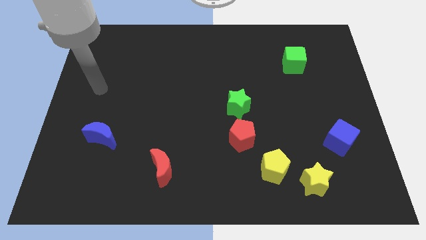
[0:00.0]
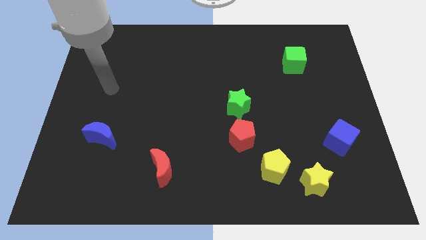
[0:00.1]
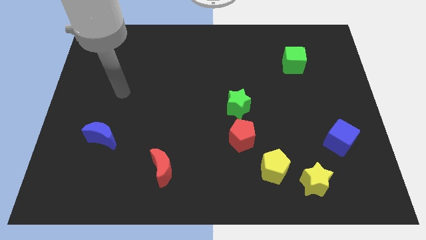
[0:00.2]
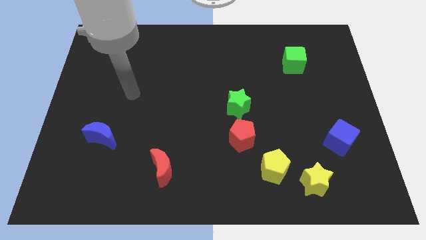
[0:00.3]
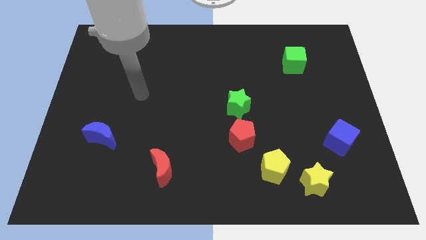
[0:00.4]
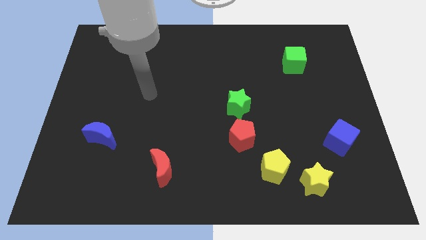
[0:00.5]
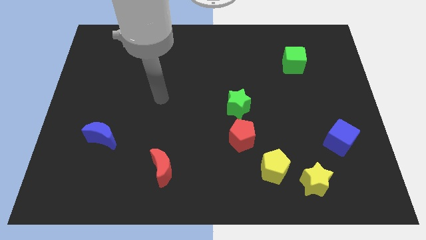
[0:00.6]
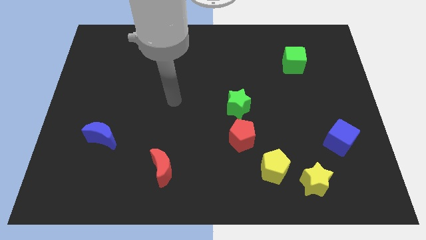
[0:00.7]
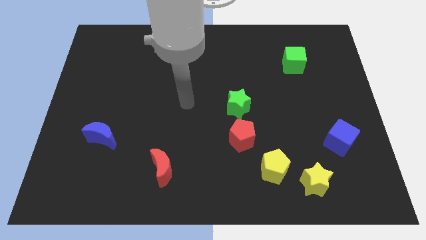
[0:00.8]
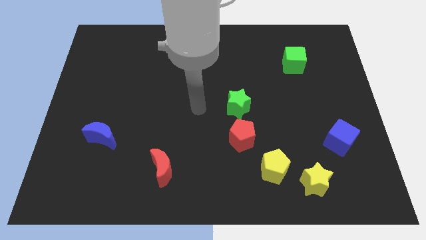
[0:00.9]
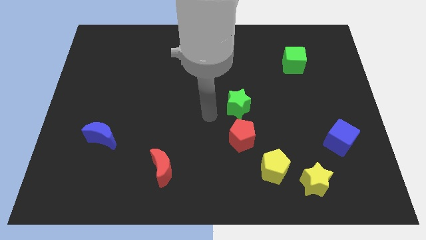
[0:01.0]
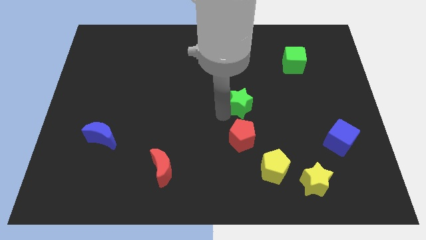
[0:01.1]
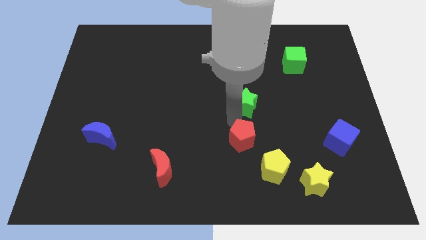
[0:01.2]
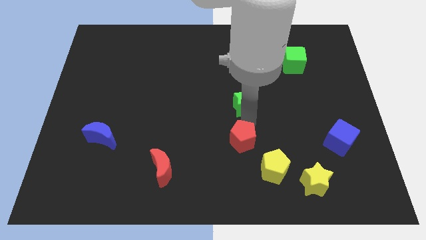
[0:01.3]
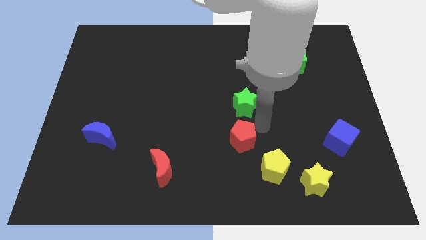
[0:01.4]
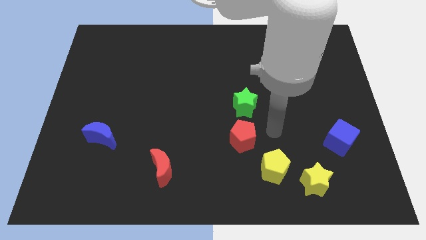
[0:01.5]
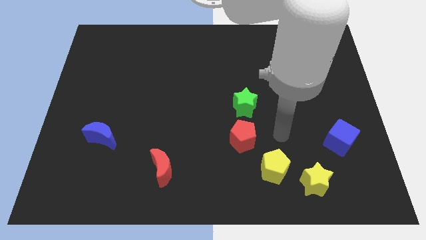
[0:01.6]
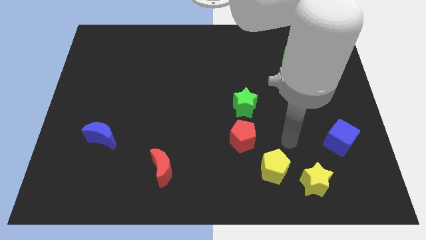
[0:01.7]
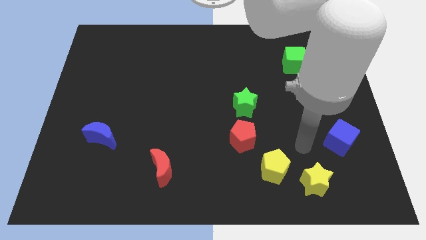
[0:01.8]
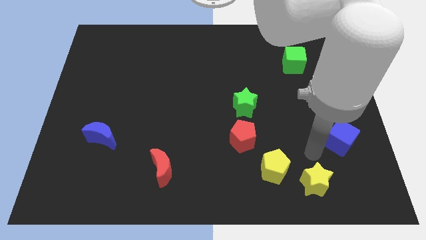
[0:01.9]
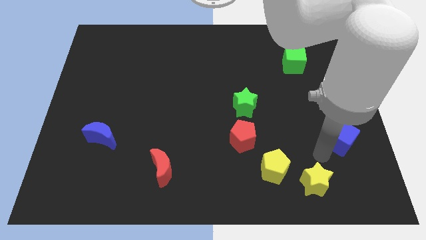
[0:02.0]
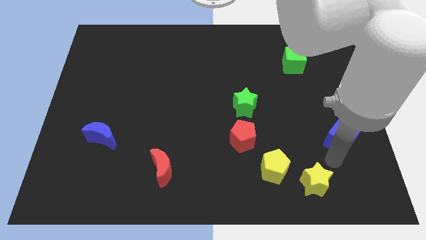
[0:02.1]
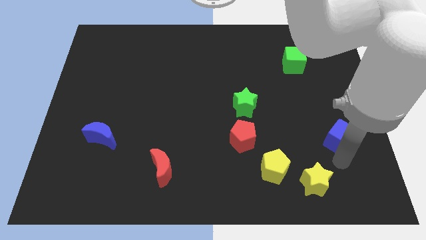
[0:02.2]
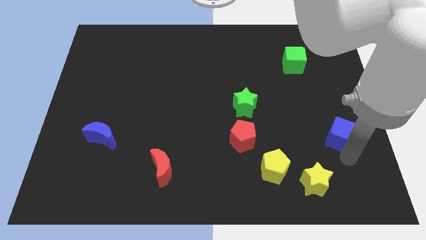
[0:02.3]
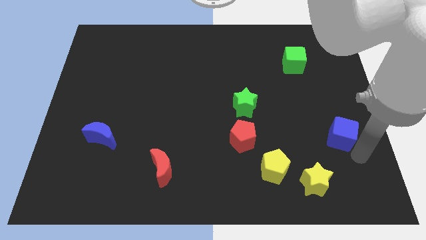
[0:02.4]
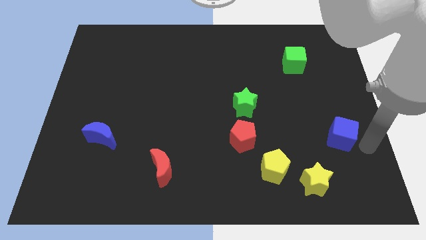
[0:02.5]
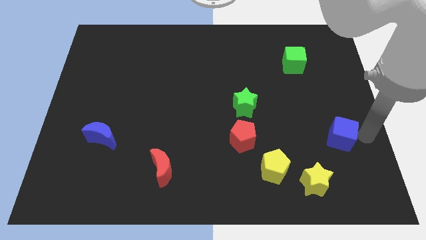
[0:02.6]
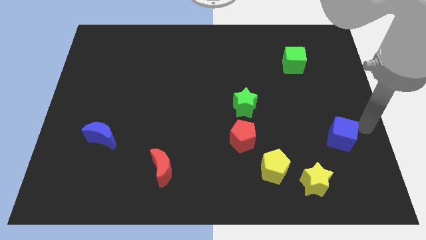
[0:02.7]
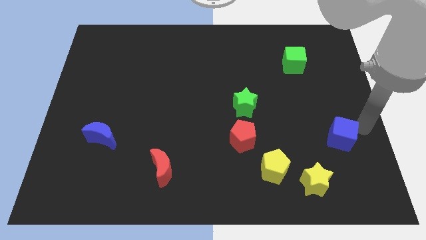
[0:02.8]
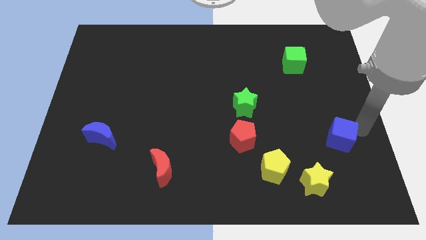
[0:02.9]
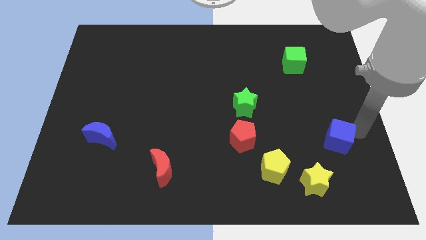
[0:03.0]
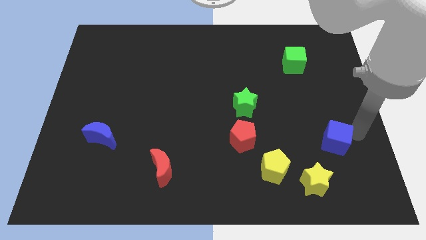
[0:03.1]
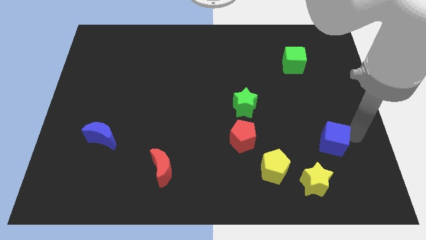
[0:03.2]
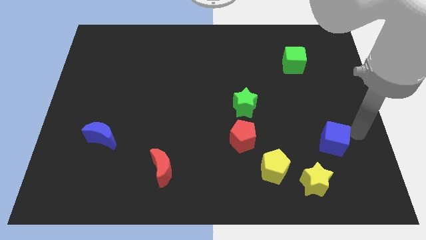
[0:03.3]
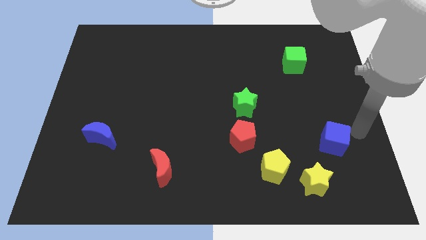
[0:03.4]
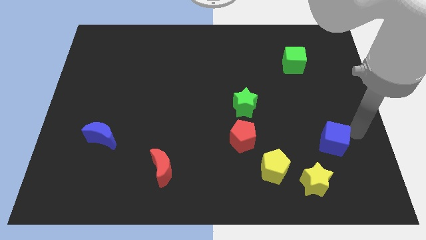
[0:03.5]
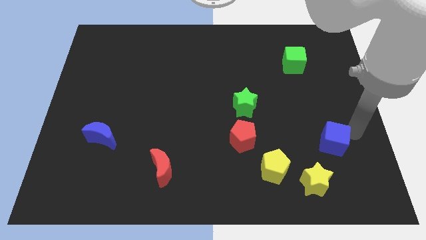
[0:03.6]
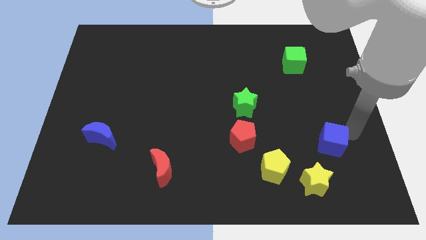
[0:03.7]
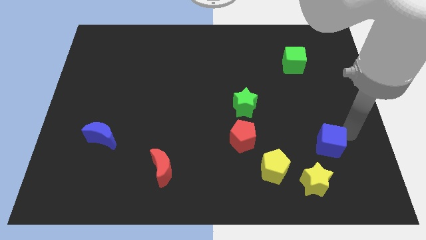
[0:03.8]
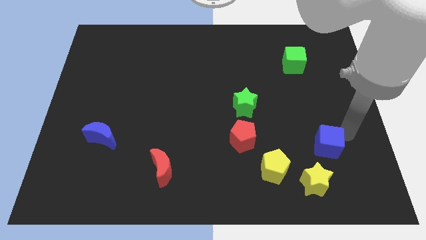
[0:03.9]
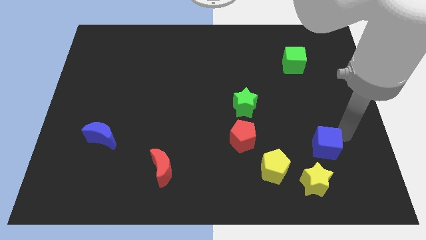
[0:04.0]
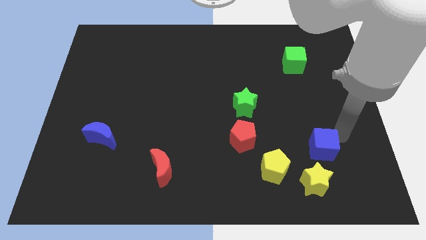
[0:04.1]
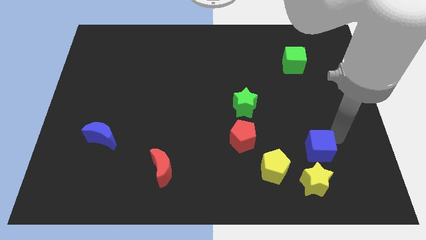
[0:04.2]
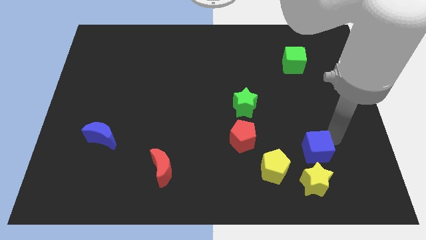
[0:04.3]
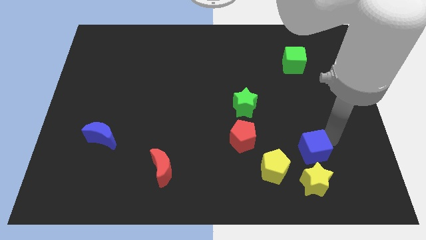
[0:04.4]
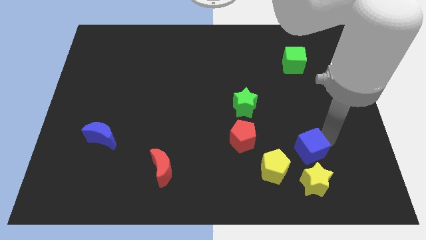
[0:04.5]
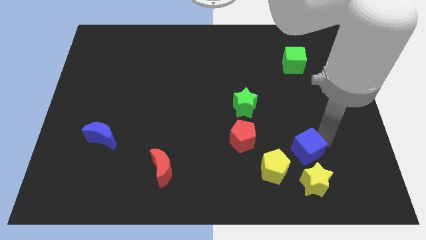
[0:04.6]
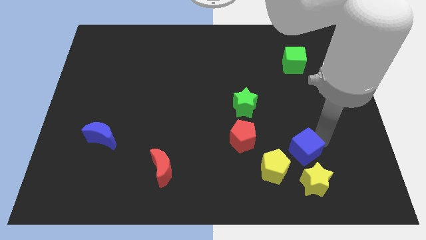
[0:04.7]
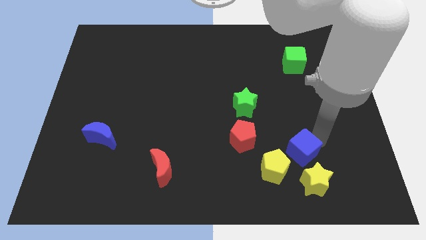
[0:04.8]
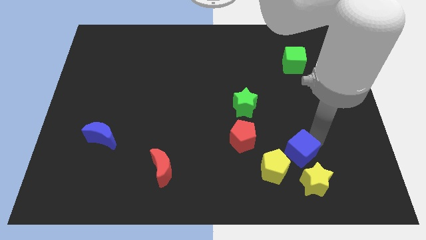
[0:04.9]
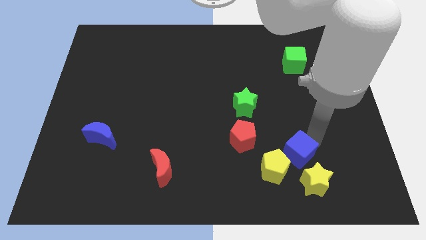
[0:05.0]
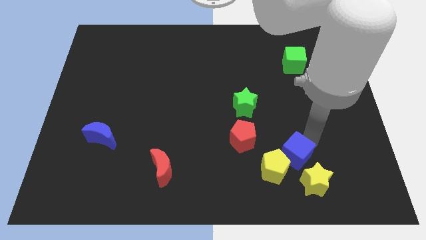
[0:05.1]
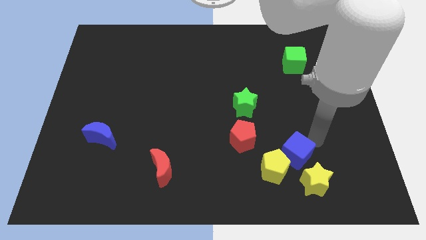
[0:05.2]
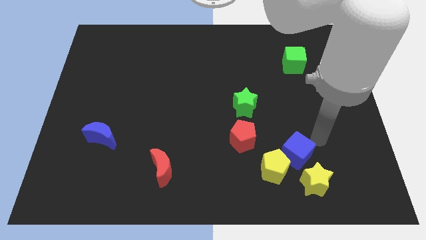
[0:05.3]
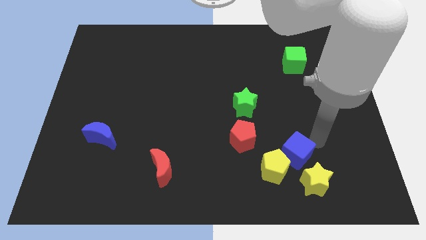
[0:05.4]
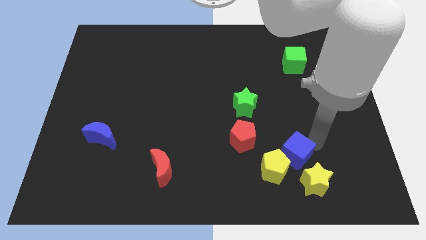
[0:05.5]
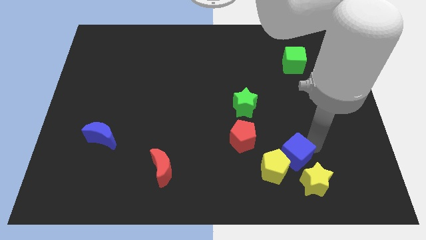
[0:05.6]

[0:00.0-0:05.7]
push the blue cube next to the yellow pentagon

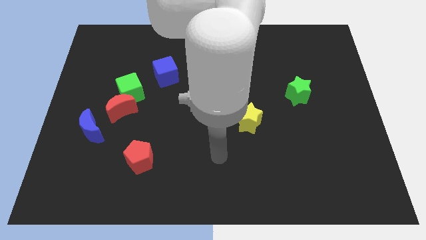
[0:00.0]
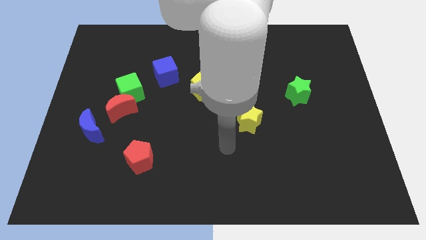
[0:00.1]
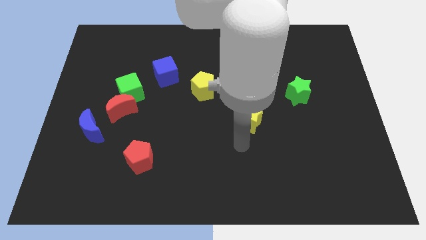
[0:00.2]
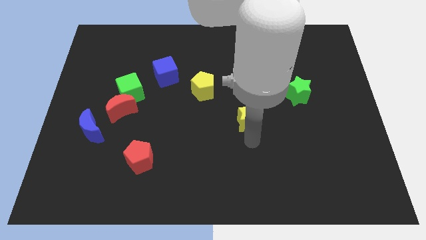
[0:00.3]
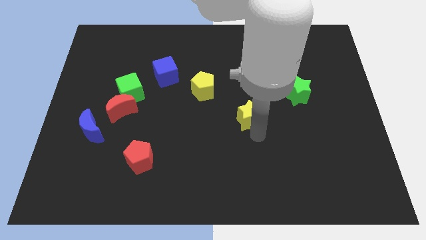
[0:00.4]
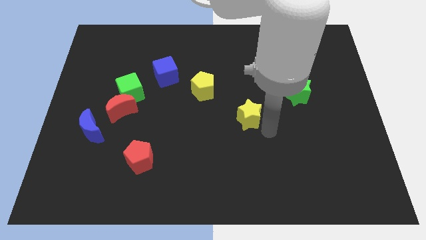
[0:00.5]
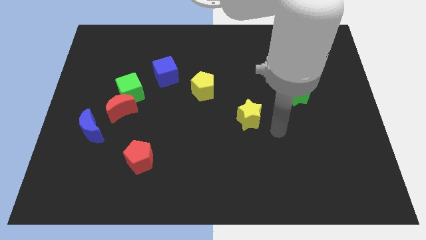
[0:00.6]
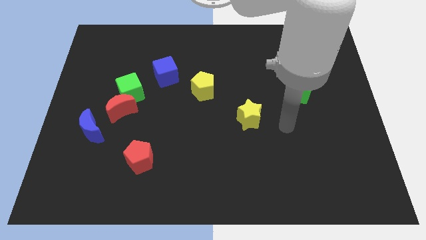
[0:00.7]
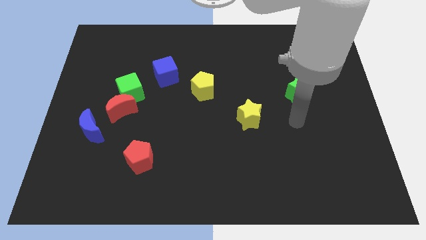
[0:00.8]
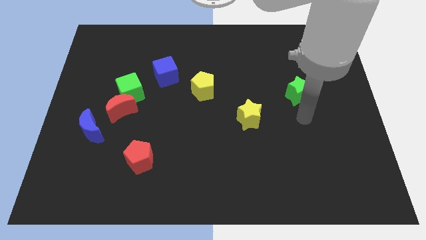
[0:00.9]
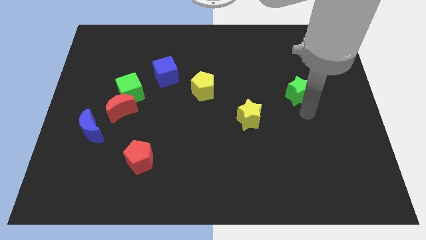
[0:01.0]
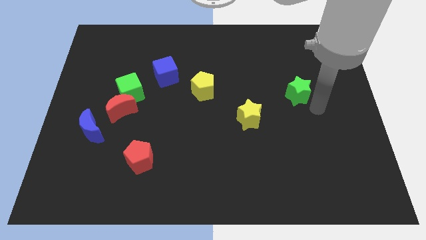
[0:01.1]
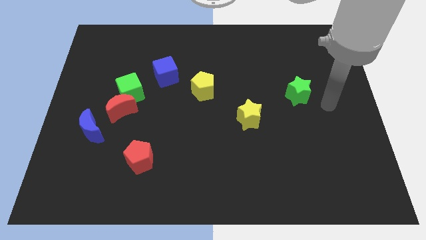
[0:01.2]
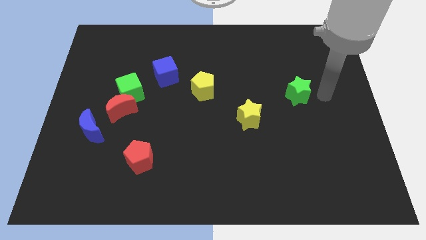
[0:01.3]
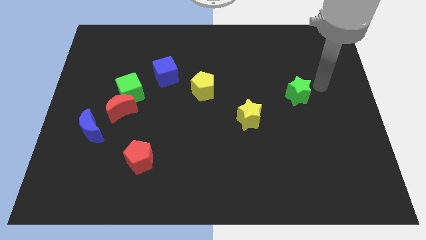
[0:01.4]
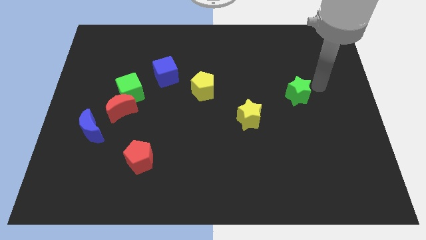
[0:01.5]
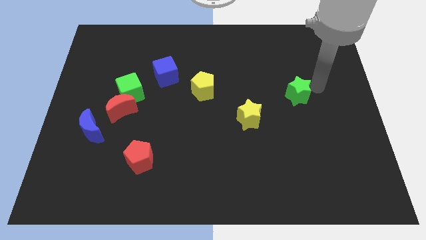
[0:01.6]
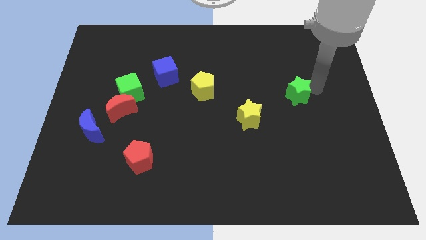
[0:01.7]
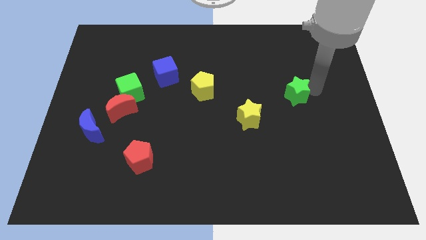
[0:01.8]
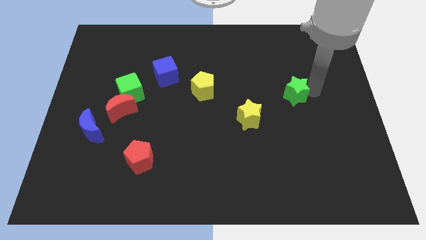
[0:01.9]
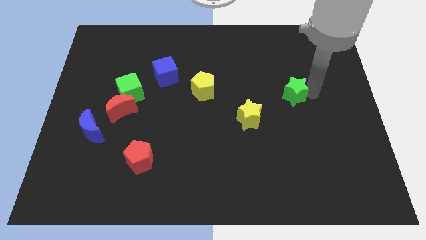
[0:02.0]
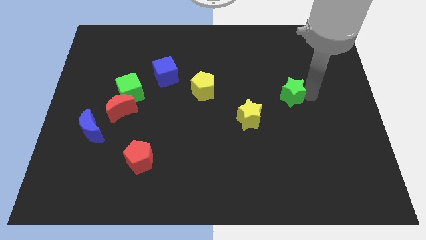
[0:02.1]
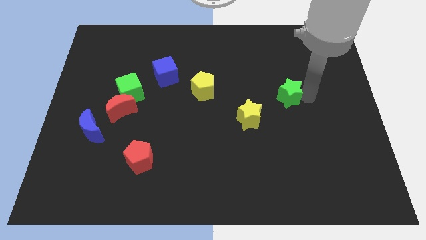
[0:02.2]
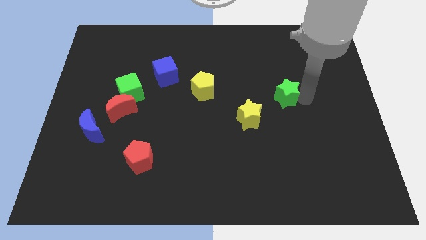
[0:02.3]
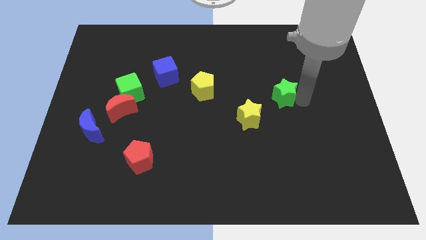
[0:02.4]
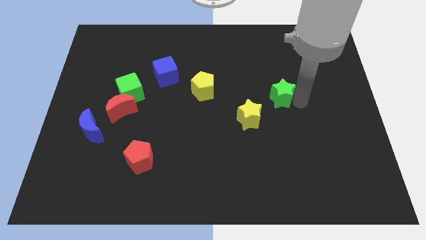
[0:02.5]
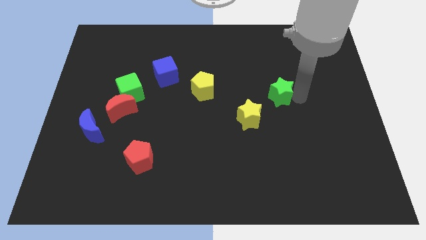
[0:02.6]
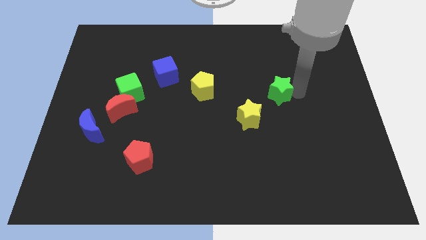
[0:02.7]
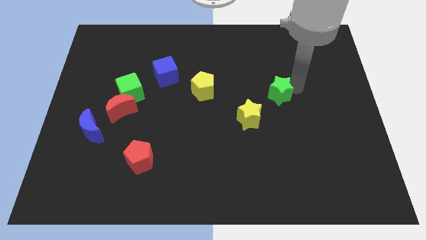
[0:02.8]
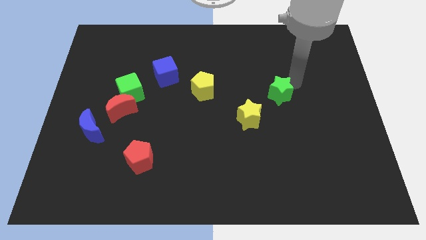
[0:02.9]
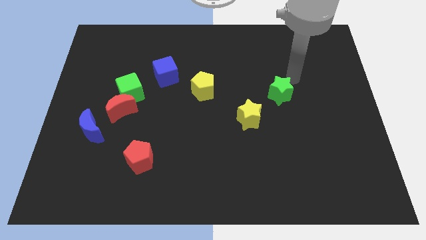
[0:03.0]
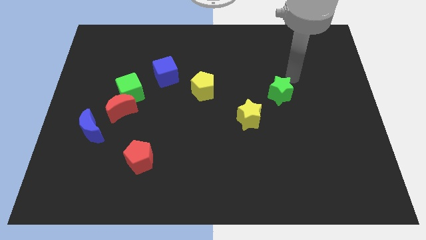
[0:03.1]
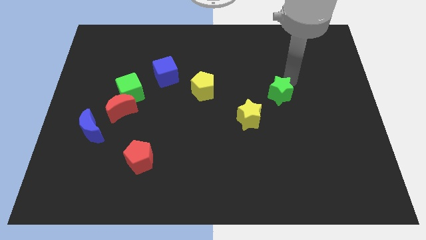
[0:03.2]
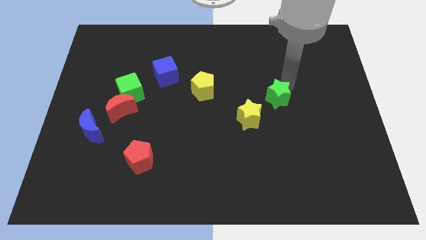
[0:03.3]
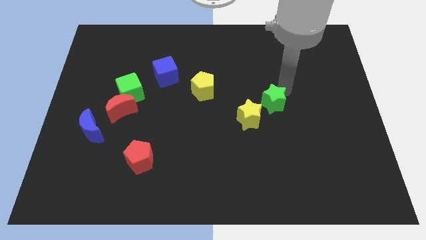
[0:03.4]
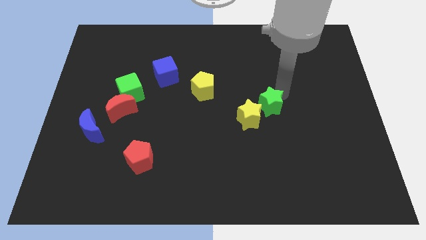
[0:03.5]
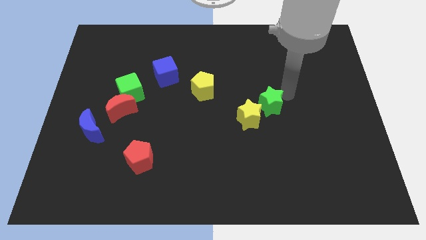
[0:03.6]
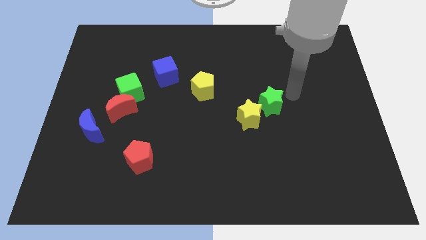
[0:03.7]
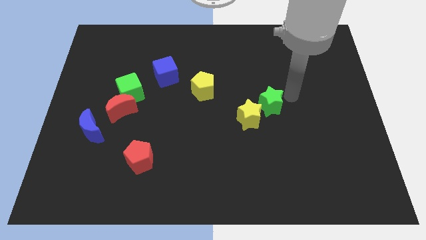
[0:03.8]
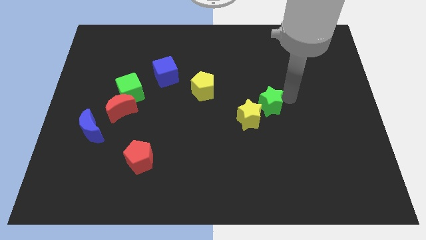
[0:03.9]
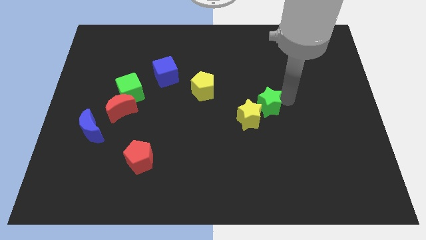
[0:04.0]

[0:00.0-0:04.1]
push the green star next to the yellow star
